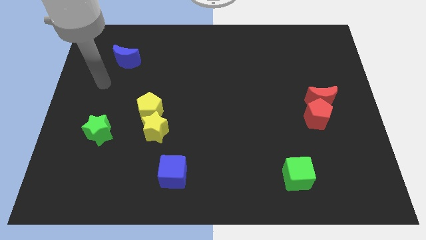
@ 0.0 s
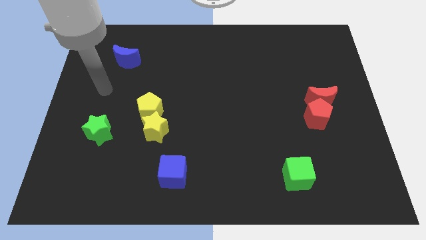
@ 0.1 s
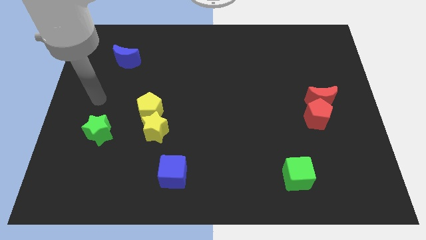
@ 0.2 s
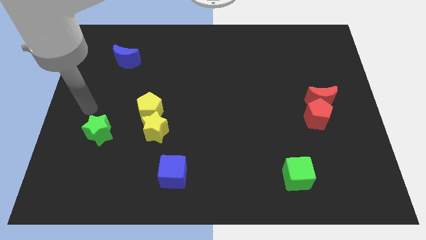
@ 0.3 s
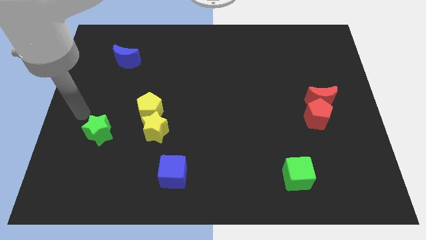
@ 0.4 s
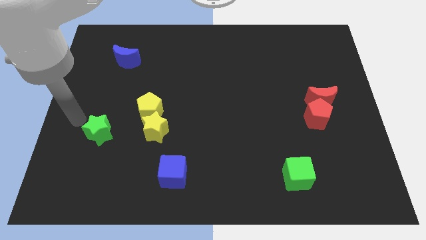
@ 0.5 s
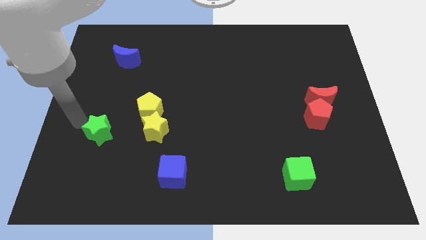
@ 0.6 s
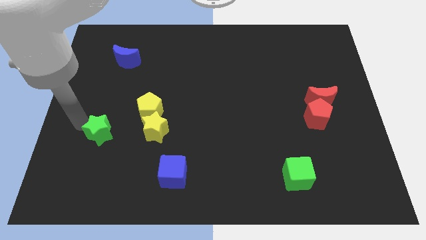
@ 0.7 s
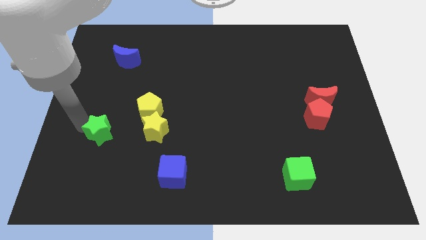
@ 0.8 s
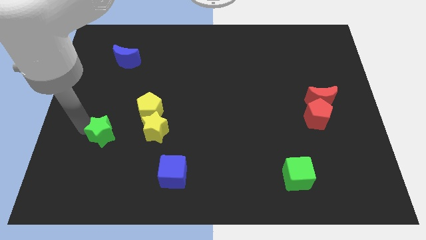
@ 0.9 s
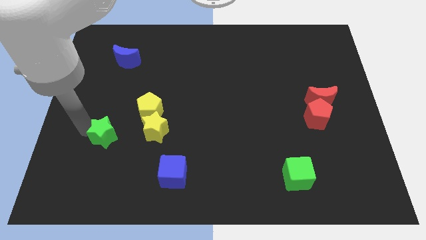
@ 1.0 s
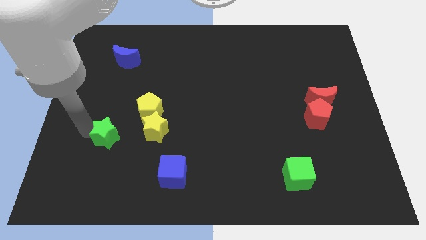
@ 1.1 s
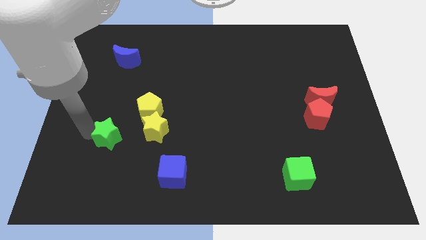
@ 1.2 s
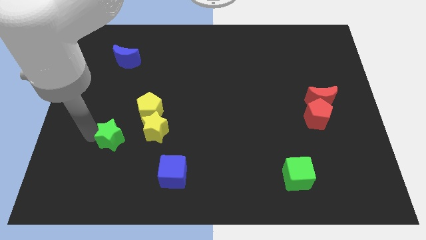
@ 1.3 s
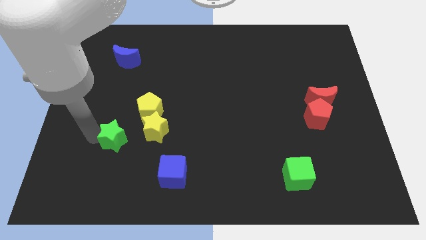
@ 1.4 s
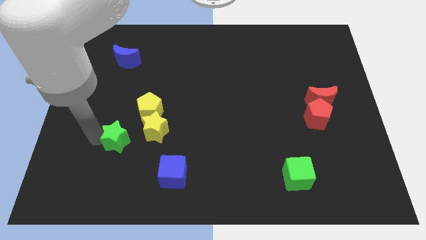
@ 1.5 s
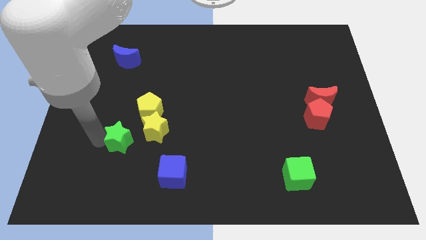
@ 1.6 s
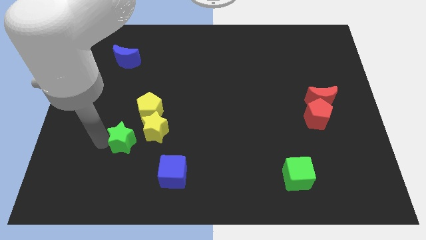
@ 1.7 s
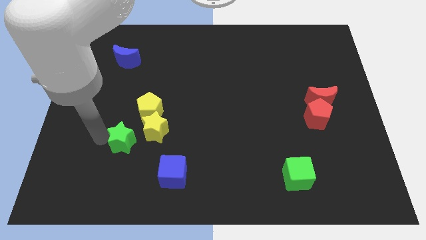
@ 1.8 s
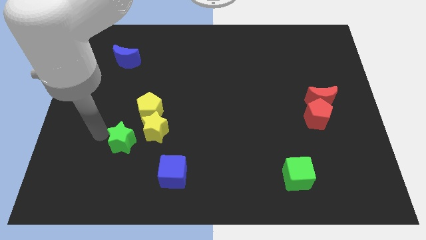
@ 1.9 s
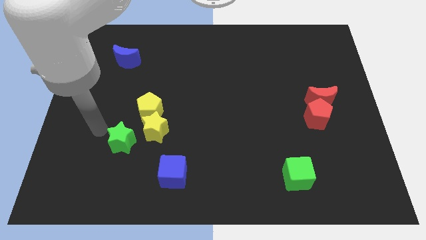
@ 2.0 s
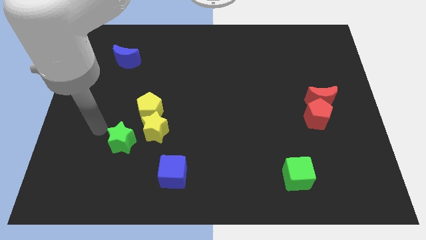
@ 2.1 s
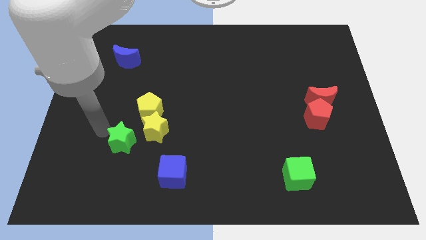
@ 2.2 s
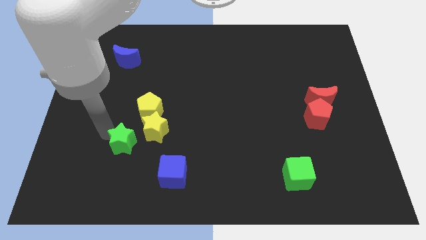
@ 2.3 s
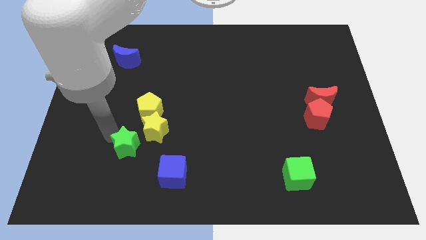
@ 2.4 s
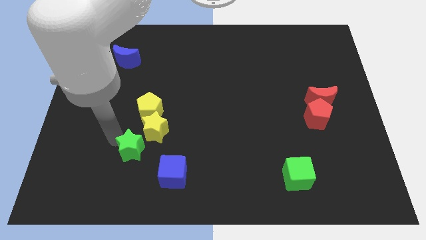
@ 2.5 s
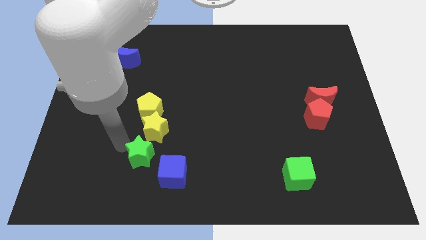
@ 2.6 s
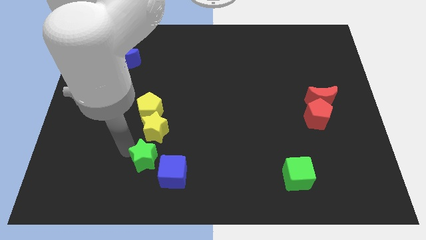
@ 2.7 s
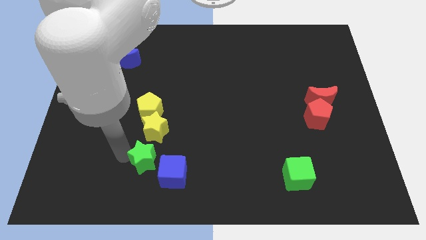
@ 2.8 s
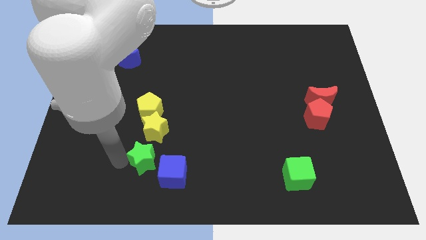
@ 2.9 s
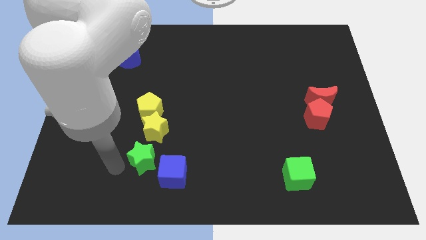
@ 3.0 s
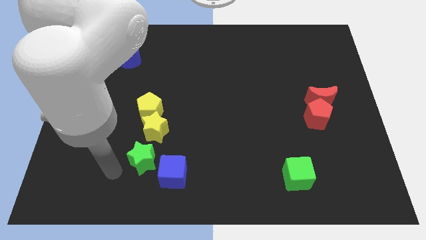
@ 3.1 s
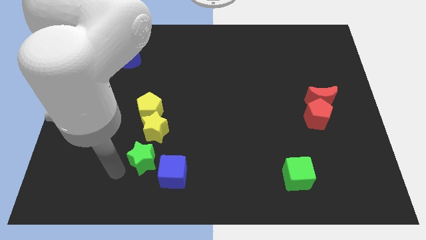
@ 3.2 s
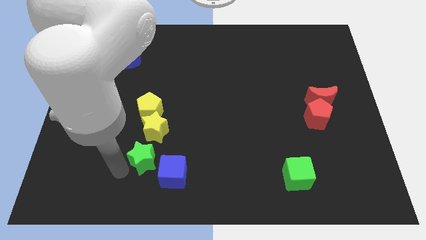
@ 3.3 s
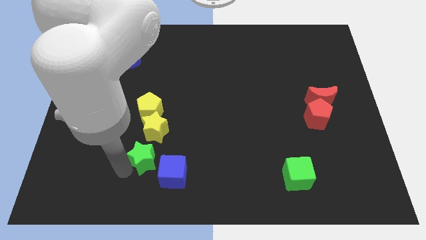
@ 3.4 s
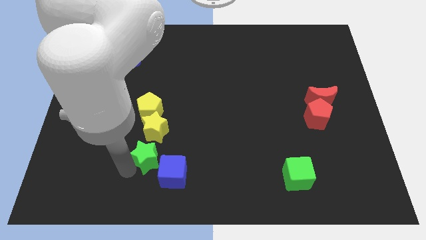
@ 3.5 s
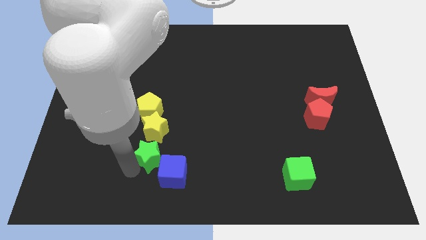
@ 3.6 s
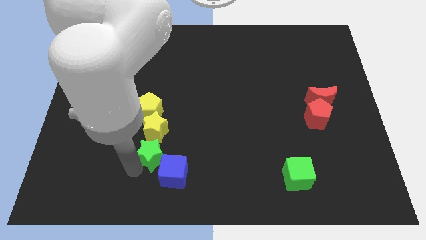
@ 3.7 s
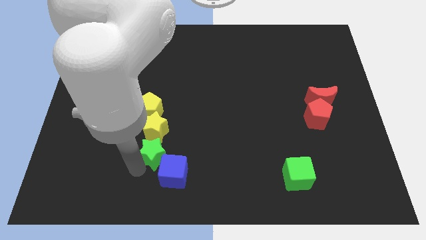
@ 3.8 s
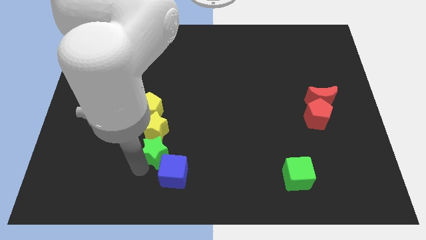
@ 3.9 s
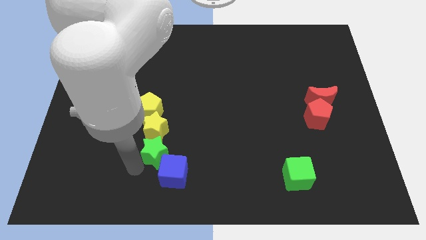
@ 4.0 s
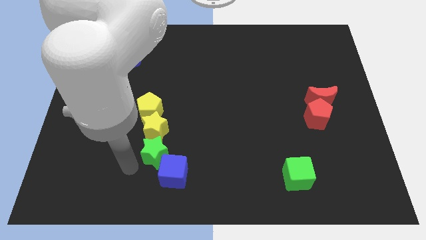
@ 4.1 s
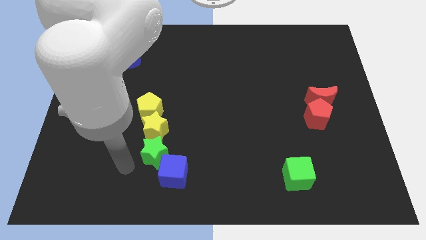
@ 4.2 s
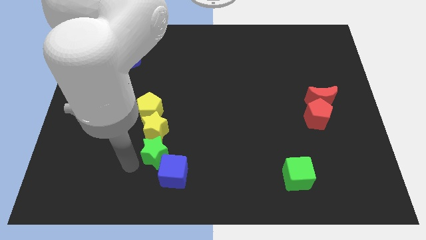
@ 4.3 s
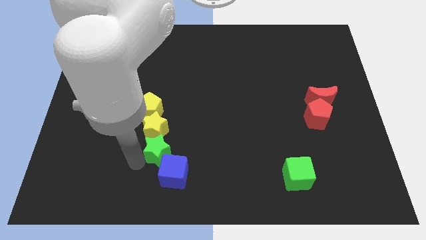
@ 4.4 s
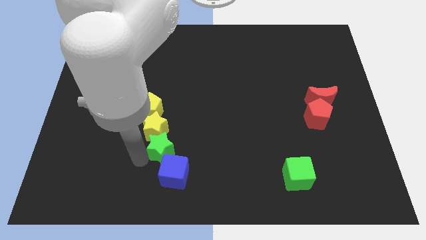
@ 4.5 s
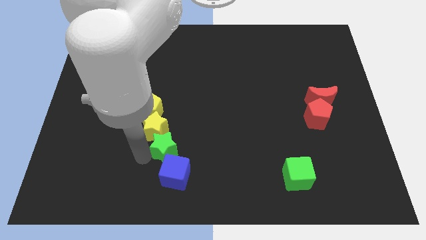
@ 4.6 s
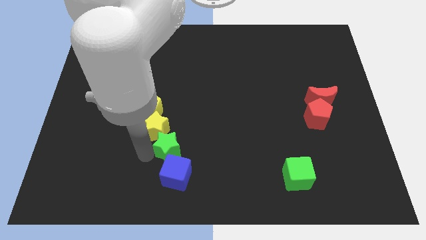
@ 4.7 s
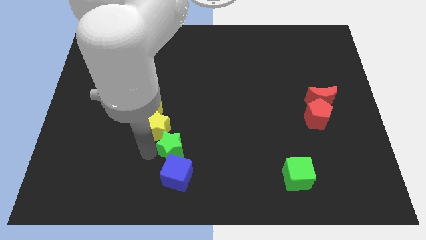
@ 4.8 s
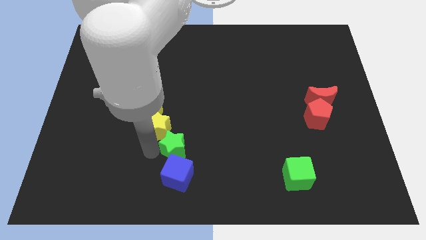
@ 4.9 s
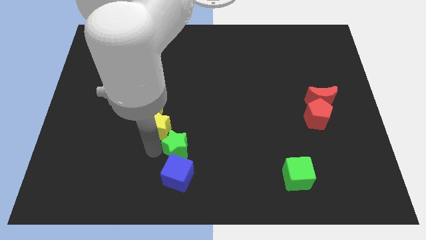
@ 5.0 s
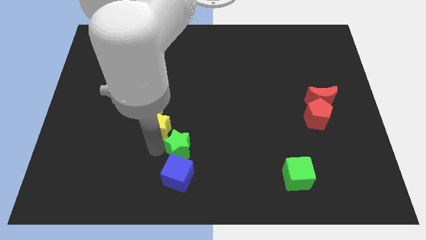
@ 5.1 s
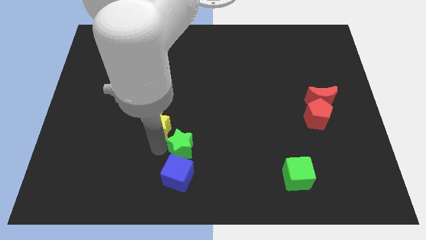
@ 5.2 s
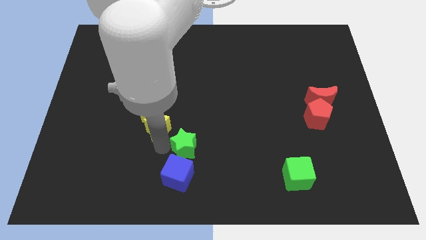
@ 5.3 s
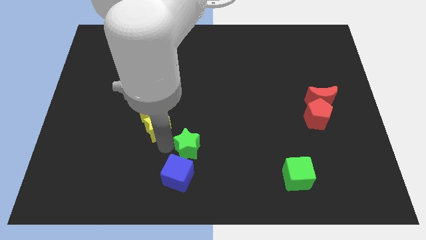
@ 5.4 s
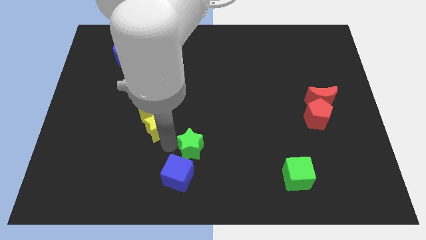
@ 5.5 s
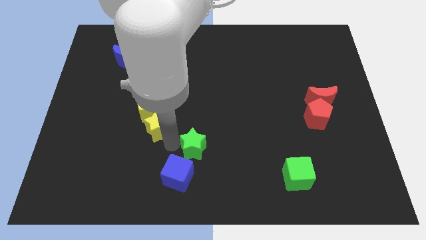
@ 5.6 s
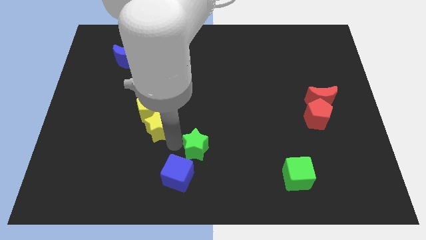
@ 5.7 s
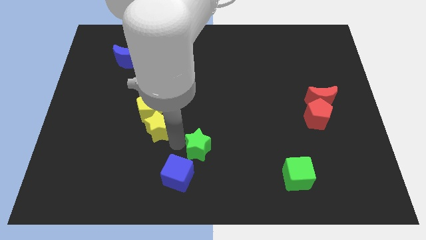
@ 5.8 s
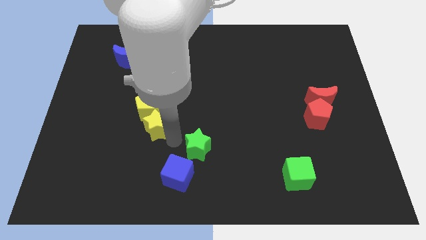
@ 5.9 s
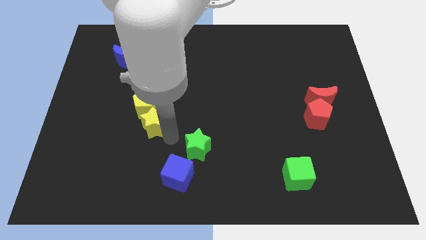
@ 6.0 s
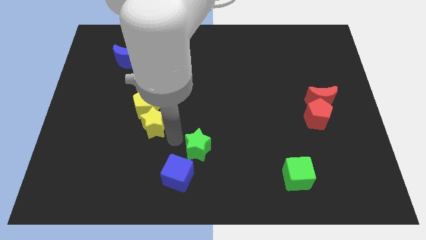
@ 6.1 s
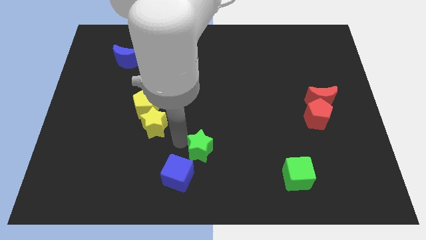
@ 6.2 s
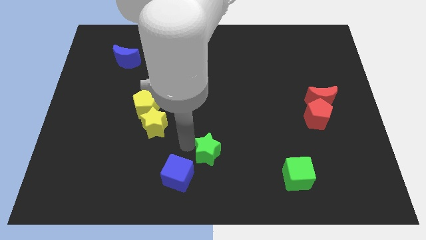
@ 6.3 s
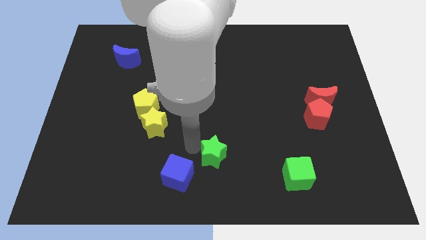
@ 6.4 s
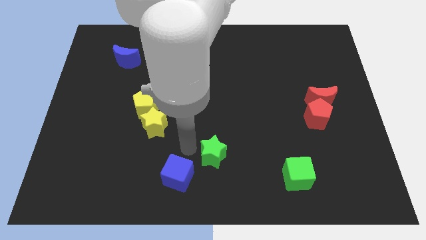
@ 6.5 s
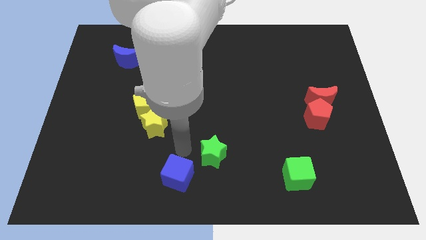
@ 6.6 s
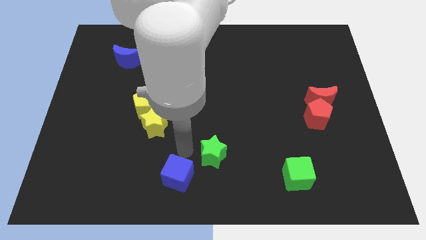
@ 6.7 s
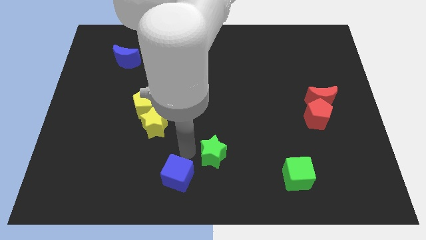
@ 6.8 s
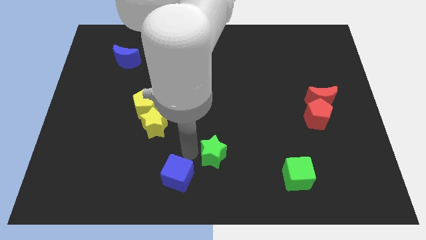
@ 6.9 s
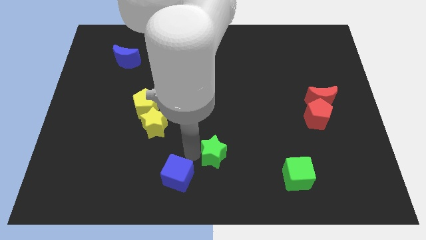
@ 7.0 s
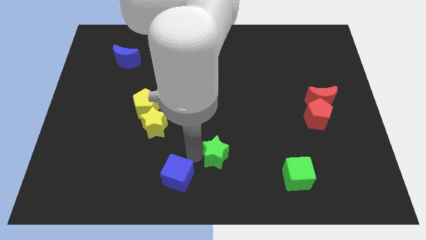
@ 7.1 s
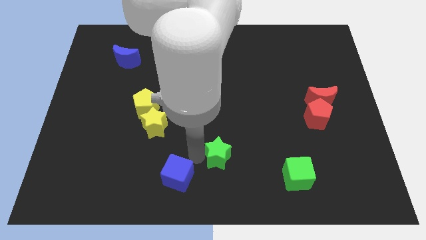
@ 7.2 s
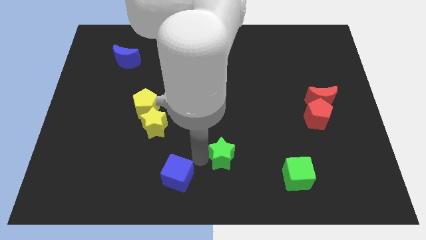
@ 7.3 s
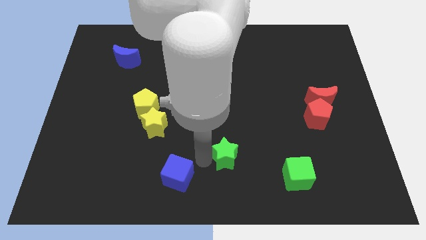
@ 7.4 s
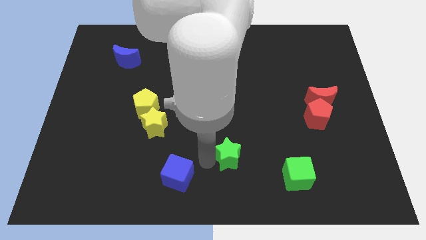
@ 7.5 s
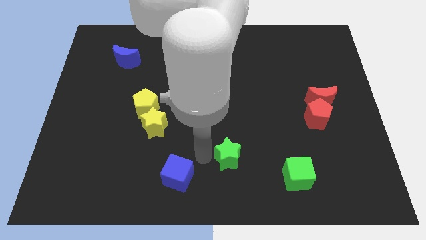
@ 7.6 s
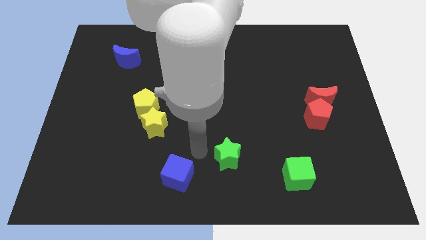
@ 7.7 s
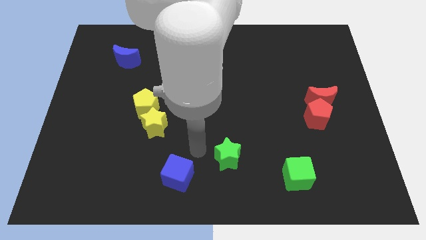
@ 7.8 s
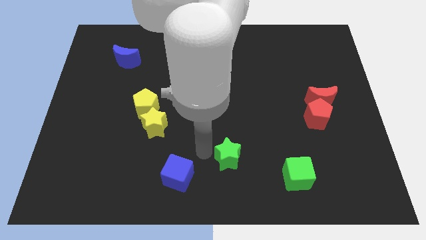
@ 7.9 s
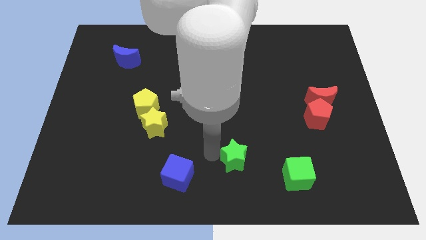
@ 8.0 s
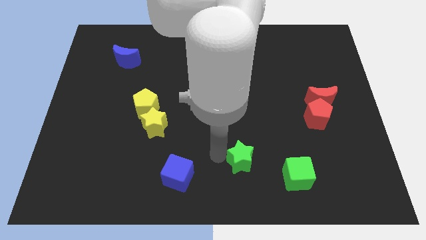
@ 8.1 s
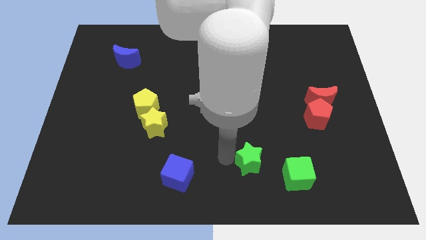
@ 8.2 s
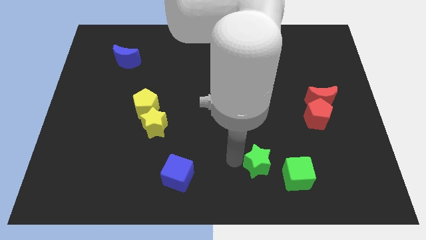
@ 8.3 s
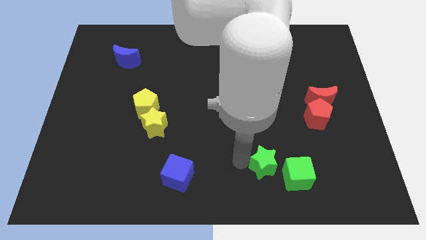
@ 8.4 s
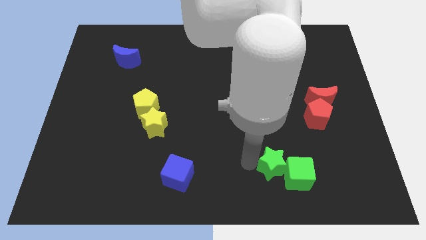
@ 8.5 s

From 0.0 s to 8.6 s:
push the green star to the green cube
